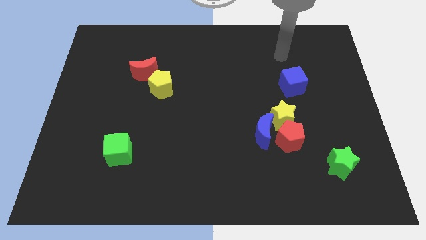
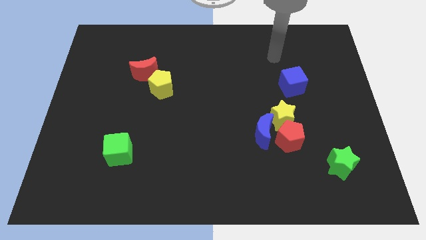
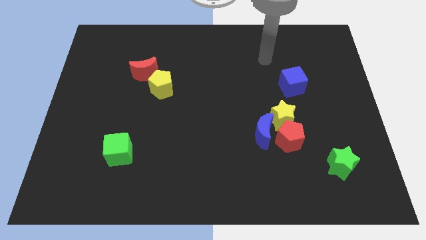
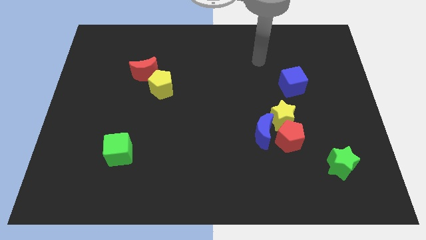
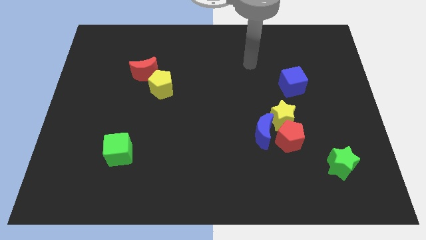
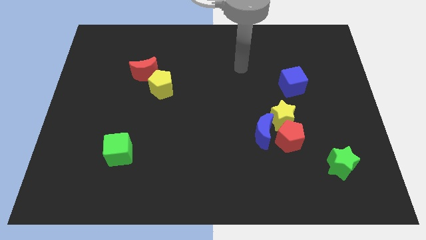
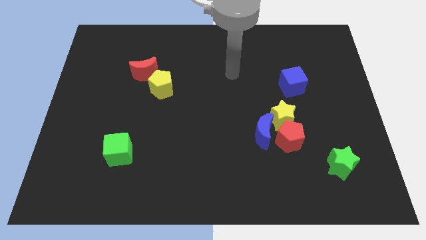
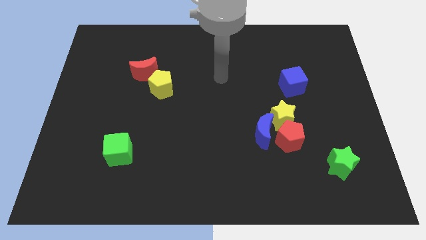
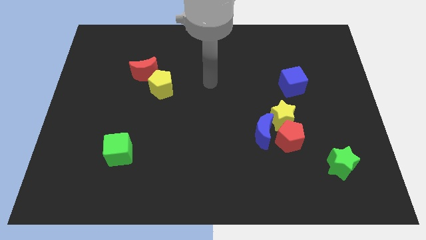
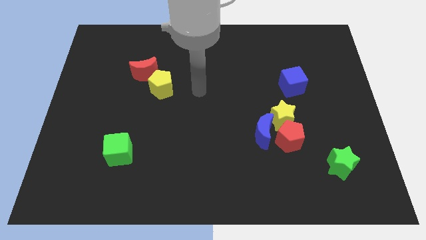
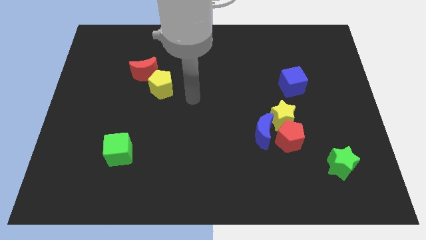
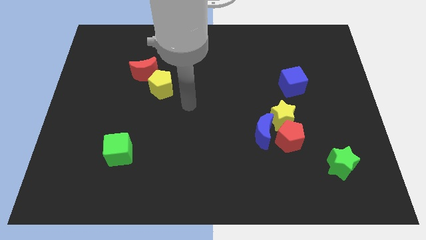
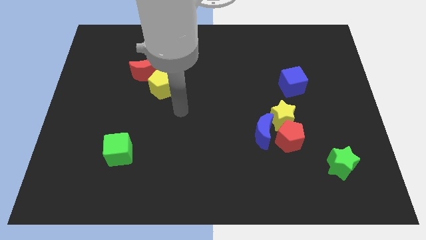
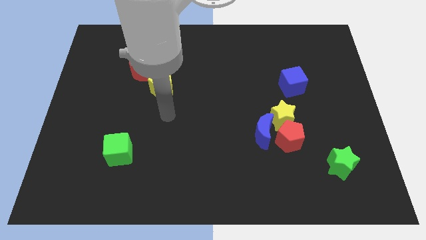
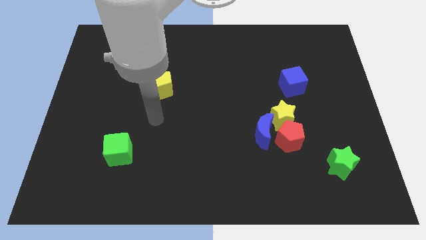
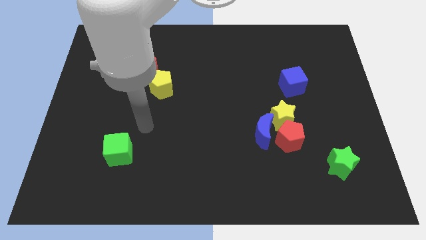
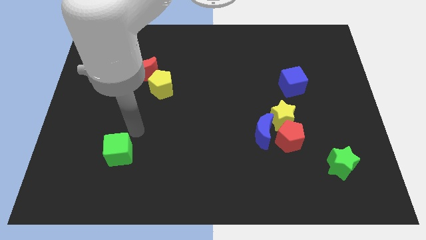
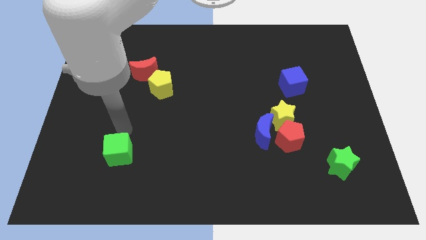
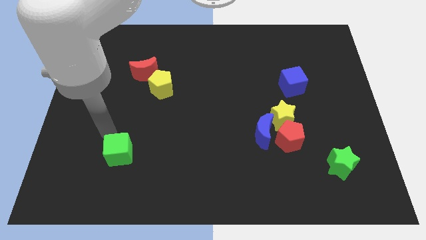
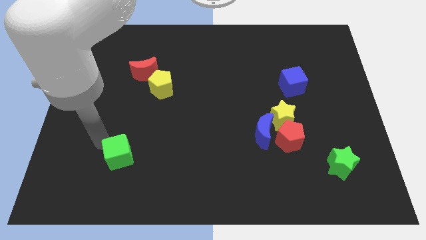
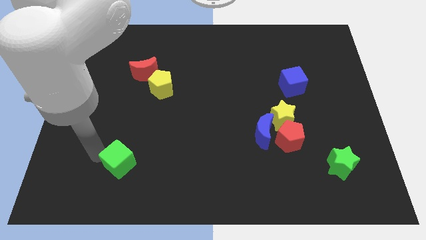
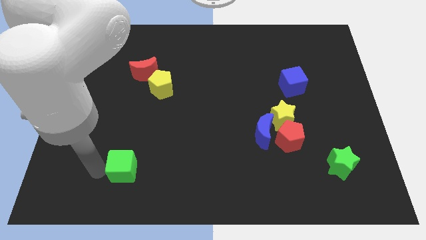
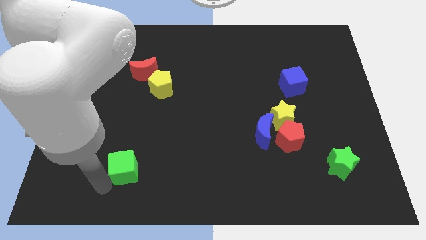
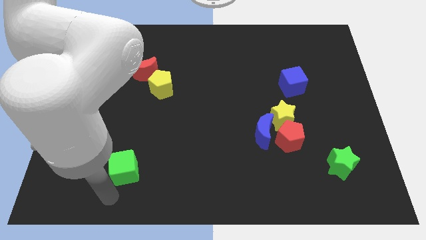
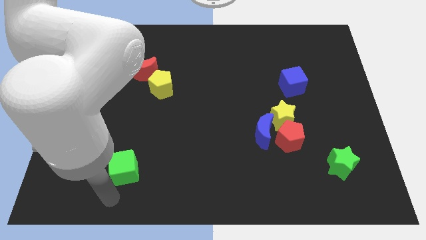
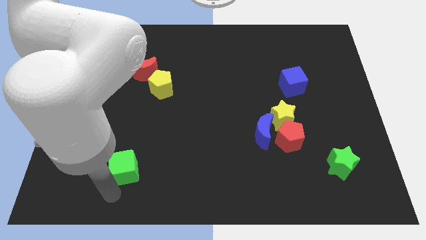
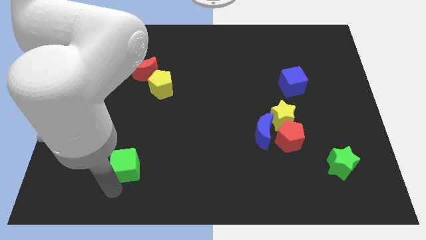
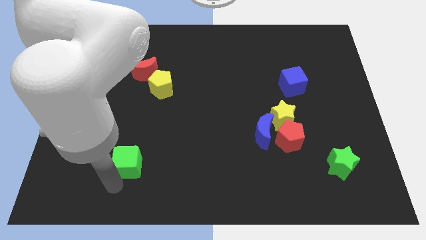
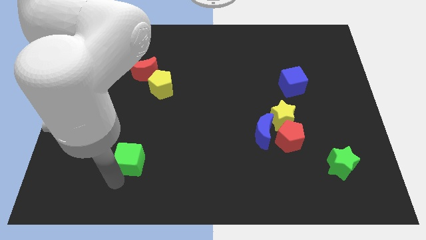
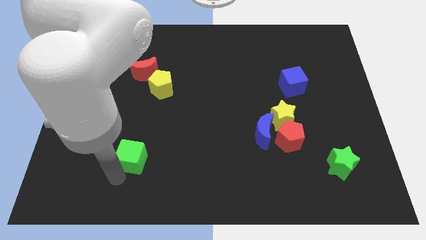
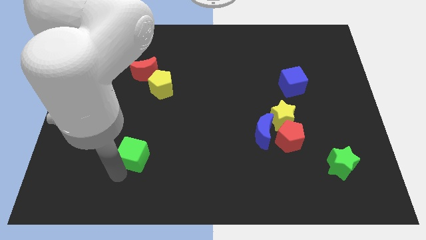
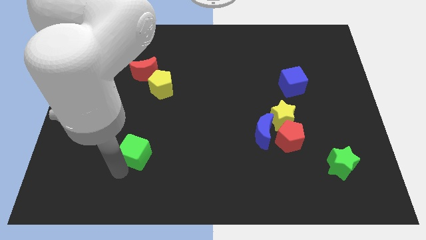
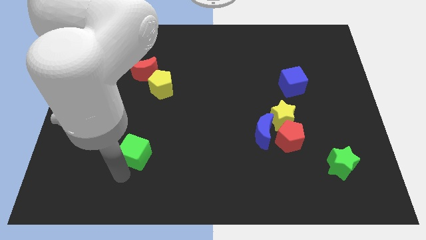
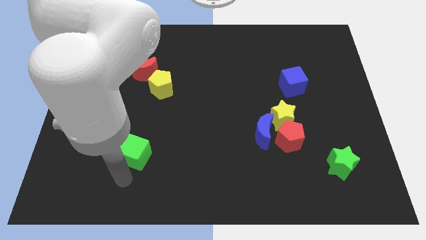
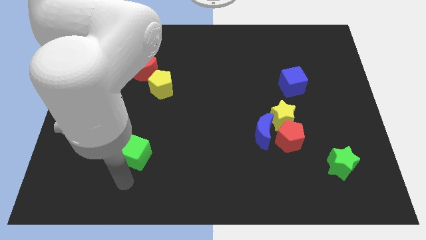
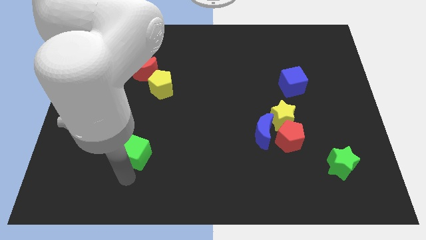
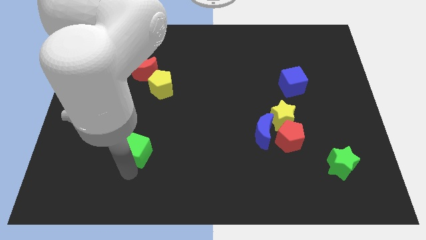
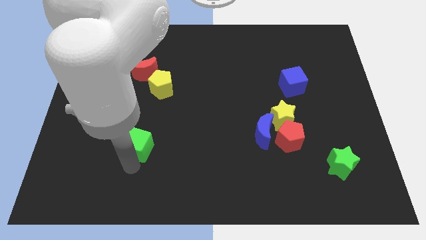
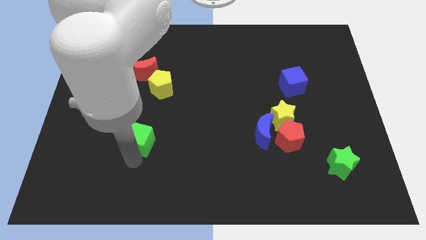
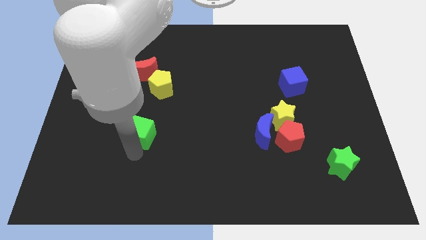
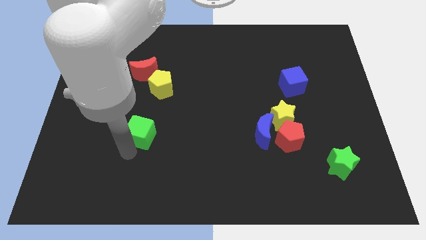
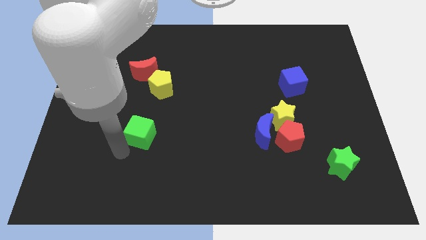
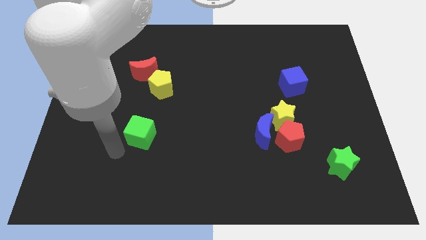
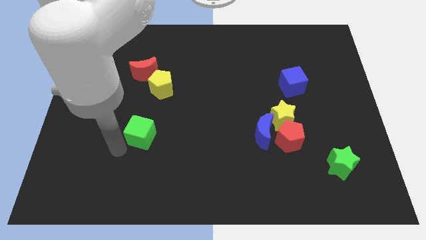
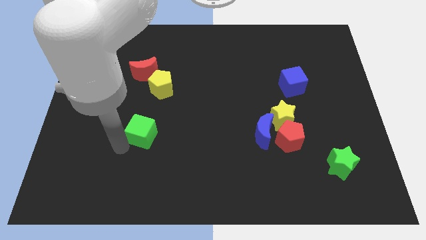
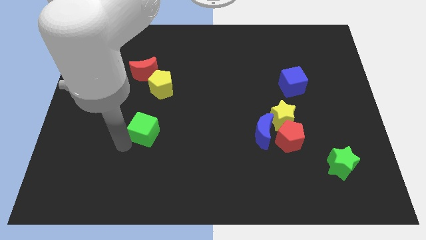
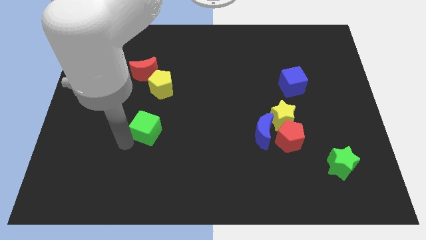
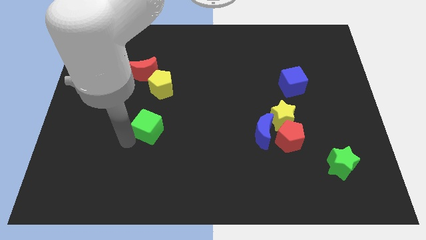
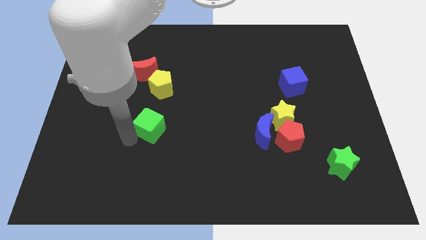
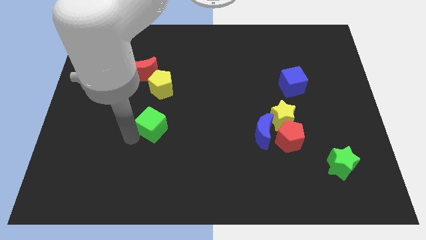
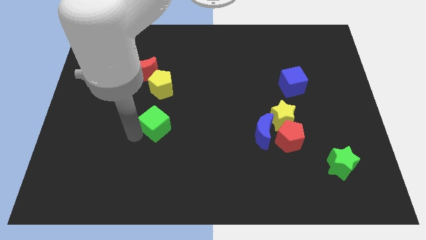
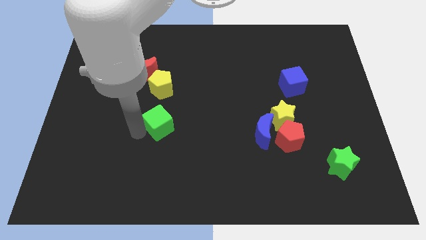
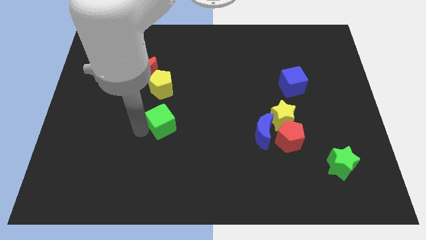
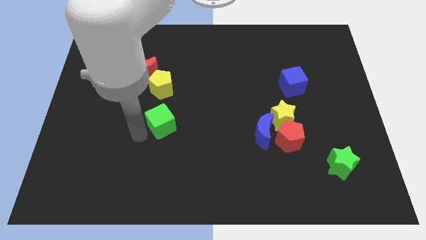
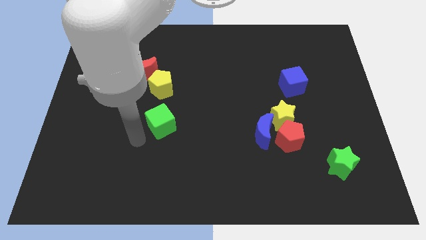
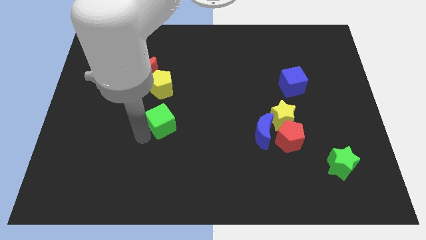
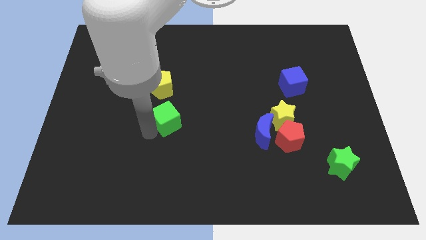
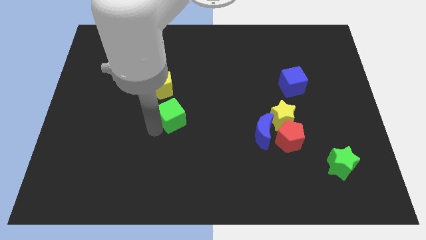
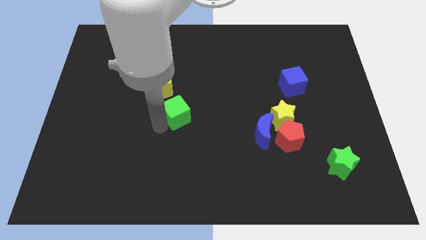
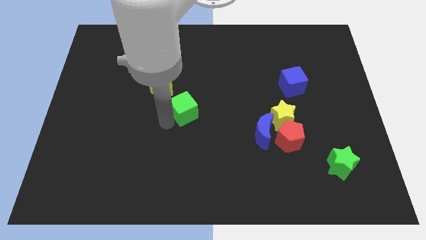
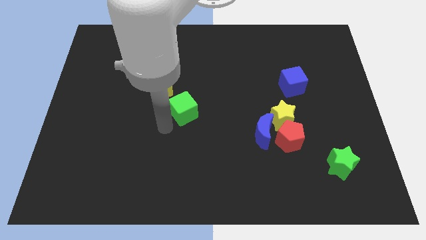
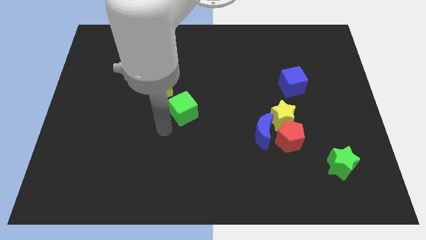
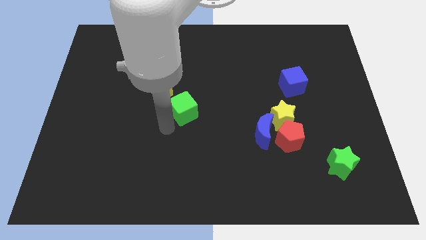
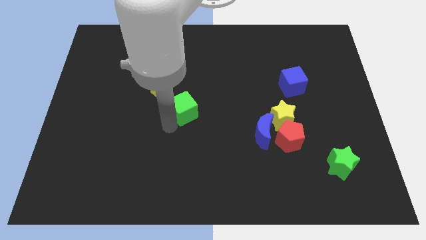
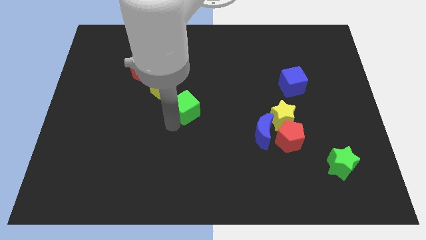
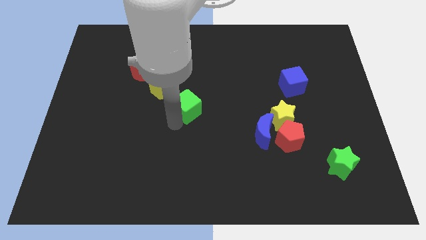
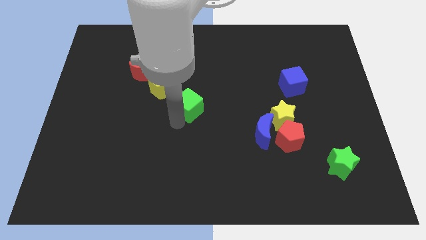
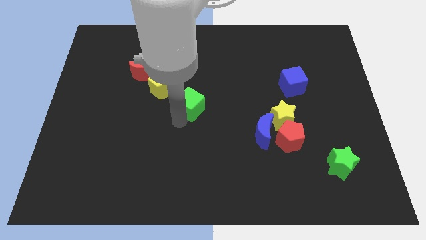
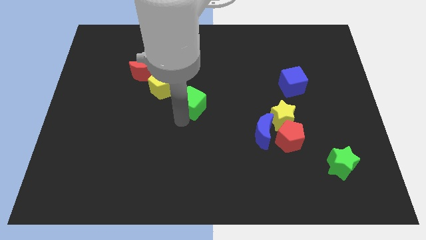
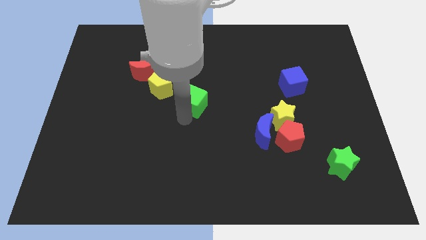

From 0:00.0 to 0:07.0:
move the green cube upwards and right

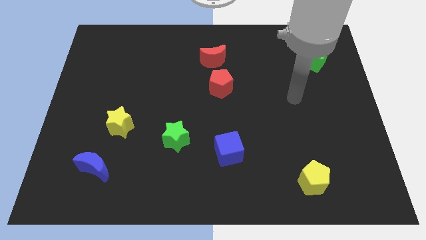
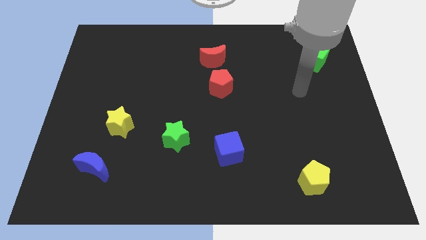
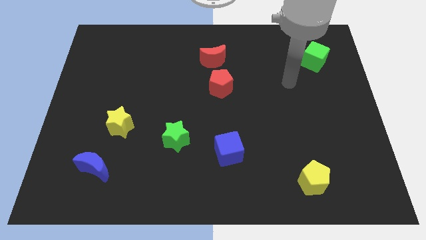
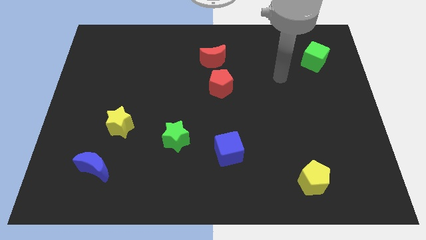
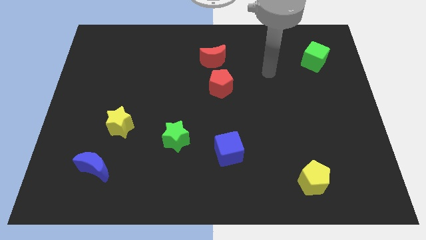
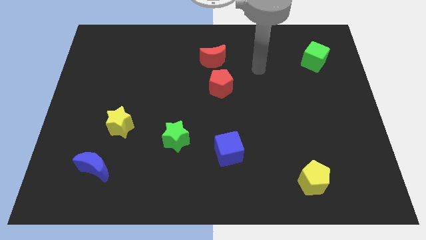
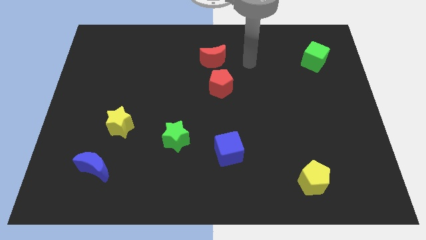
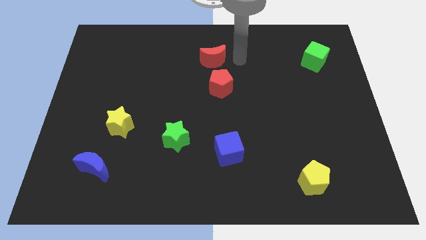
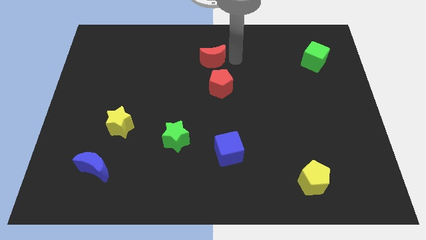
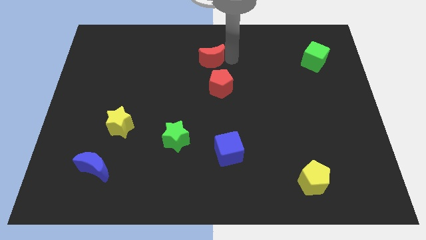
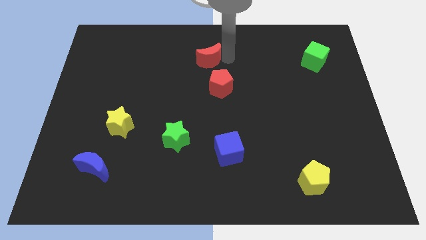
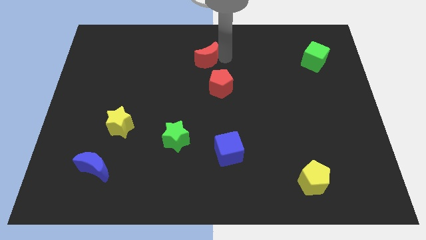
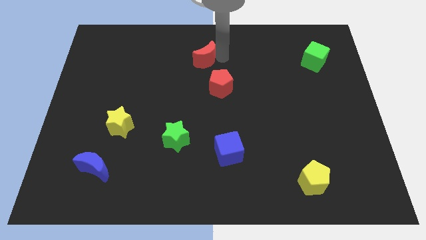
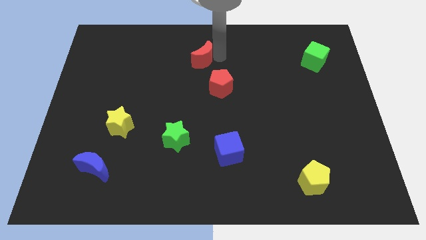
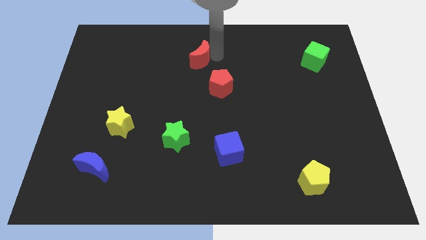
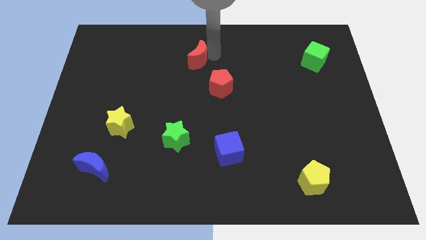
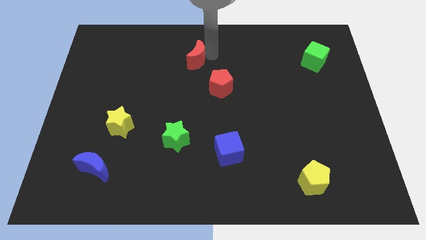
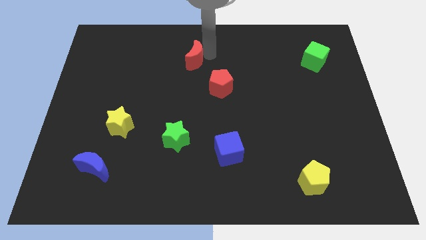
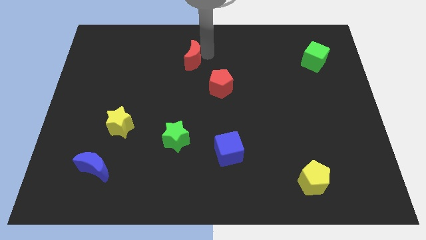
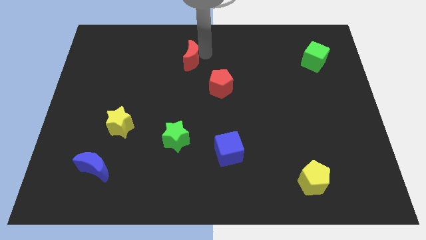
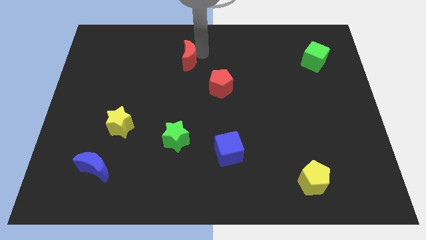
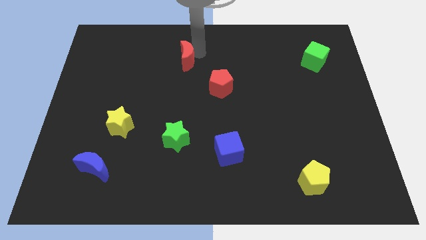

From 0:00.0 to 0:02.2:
slightly slide the red moon to the left
